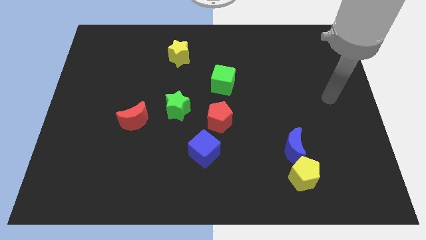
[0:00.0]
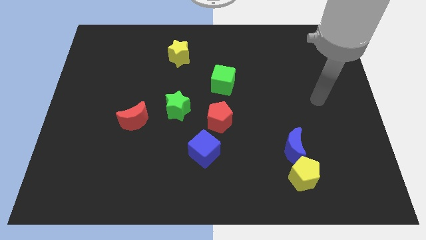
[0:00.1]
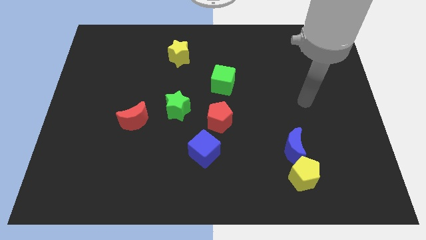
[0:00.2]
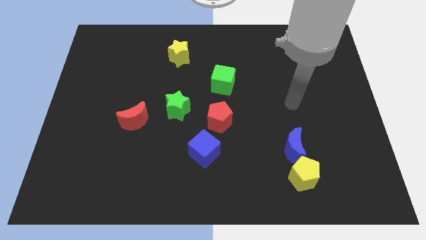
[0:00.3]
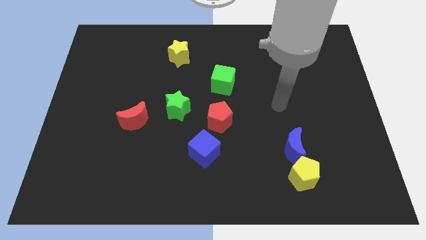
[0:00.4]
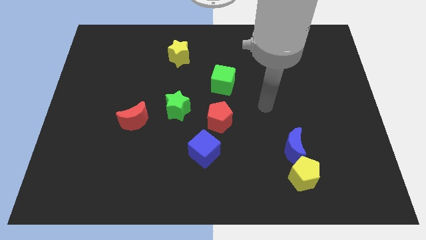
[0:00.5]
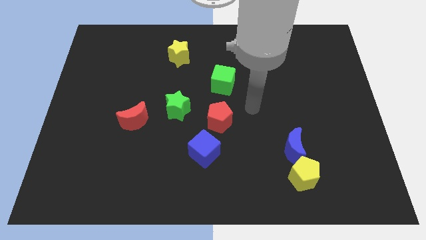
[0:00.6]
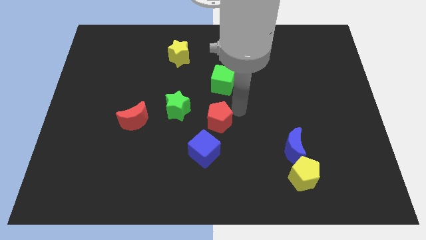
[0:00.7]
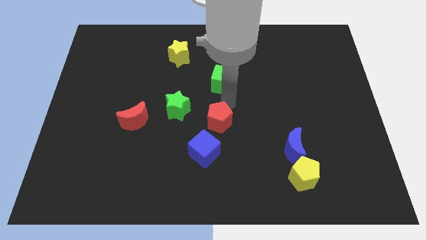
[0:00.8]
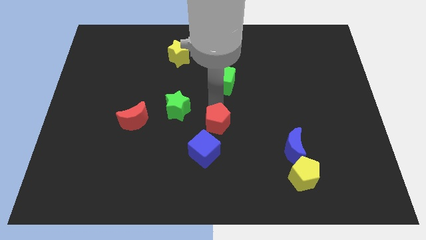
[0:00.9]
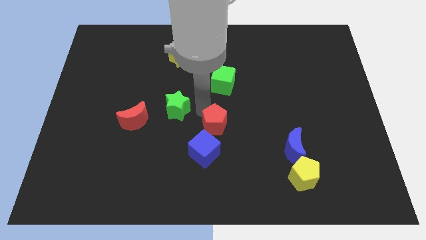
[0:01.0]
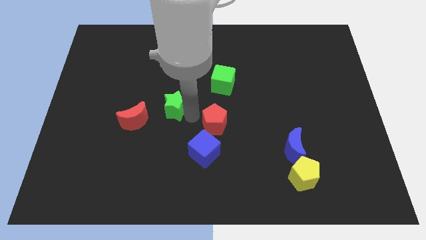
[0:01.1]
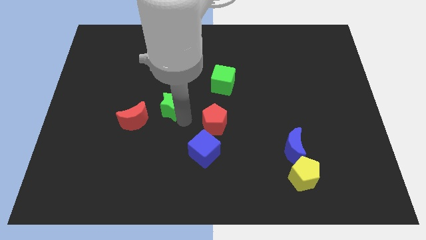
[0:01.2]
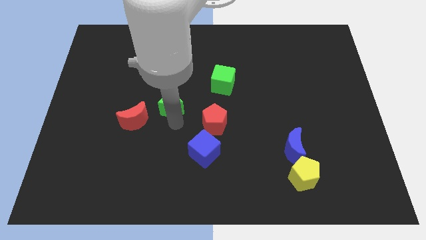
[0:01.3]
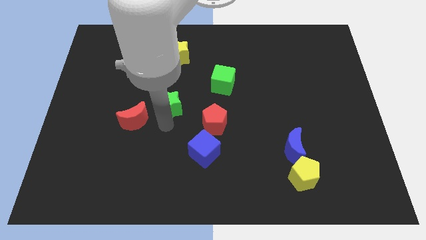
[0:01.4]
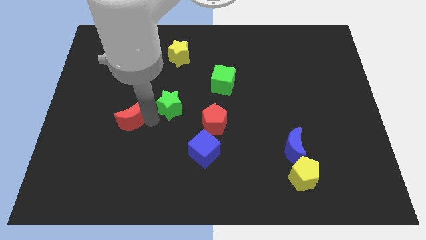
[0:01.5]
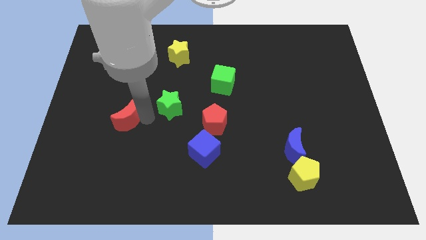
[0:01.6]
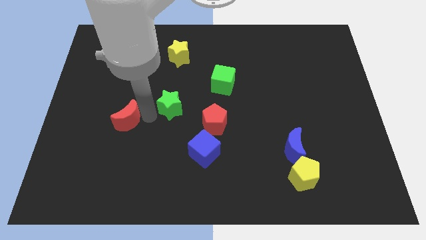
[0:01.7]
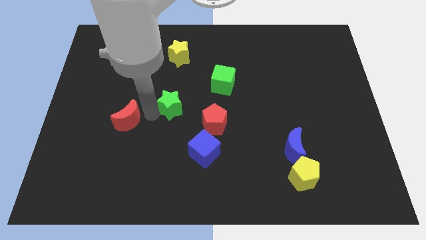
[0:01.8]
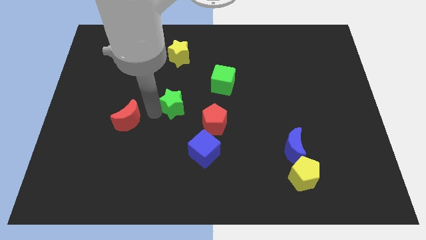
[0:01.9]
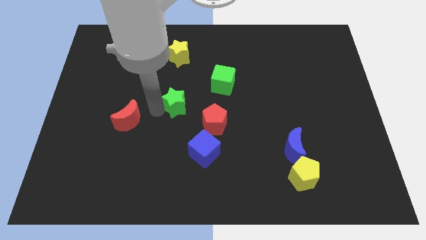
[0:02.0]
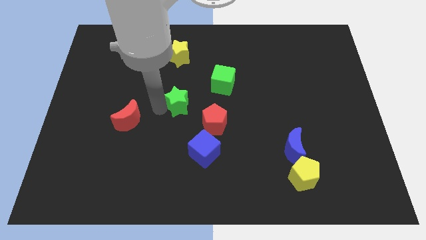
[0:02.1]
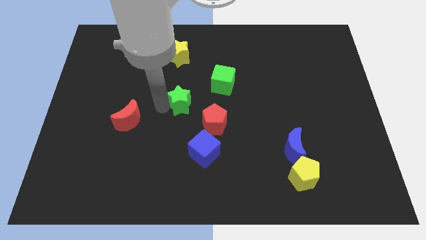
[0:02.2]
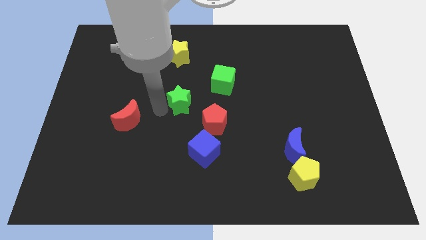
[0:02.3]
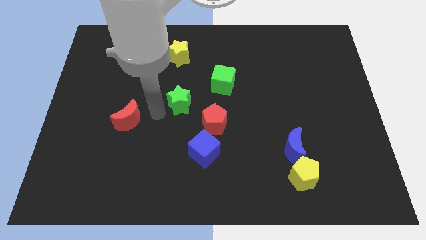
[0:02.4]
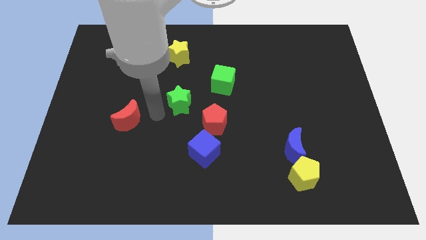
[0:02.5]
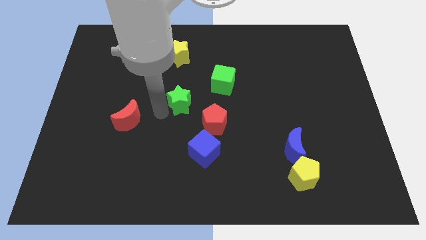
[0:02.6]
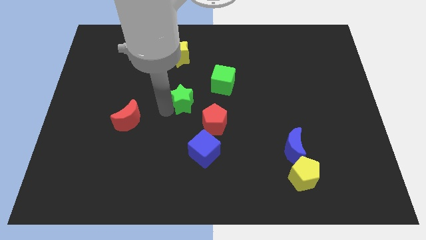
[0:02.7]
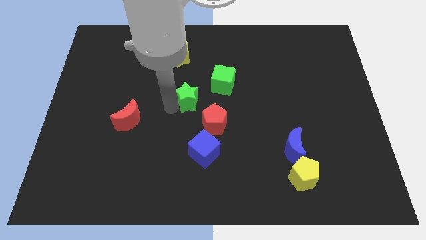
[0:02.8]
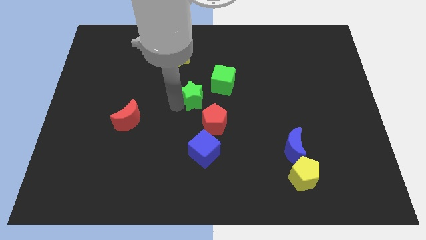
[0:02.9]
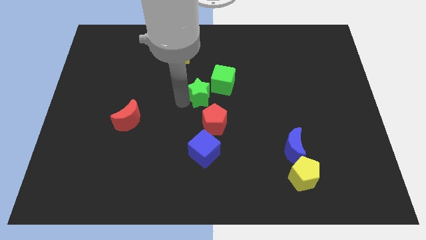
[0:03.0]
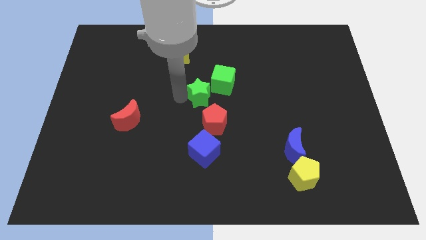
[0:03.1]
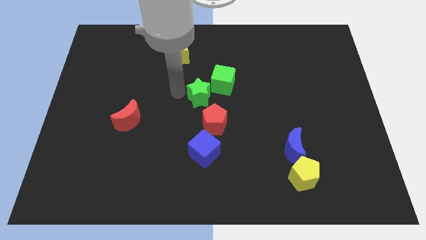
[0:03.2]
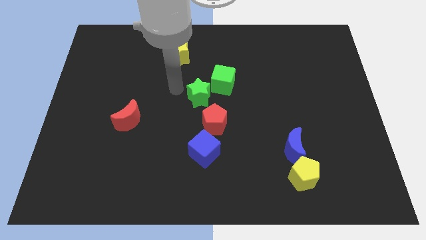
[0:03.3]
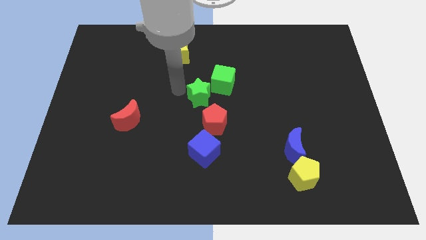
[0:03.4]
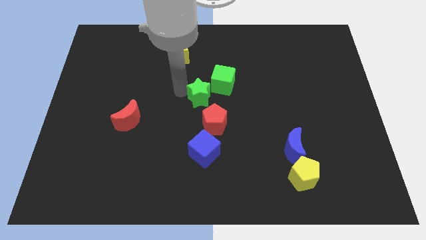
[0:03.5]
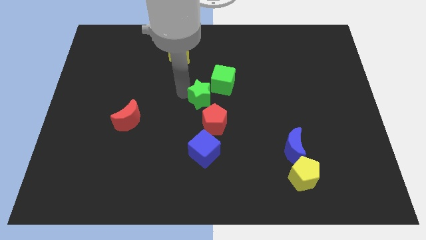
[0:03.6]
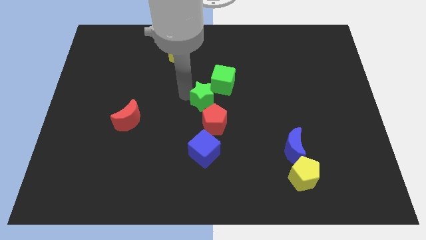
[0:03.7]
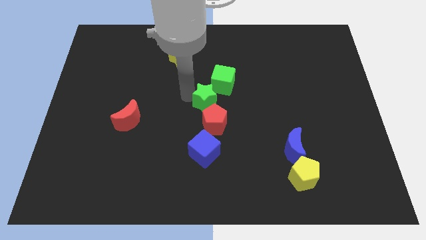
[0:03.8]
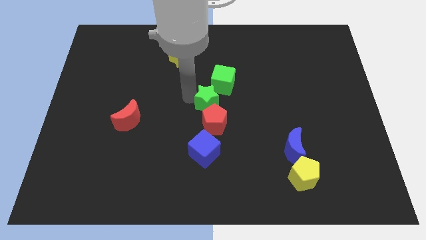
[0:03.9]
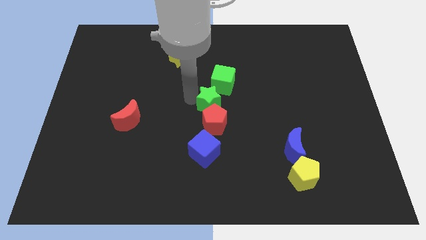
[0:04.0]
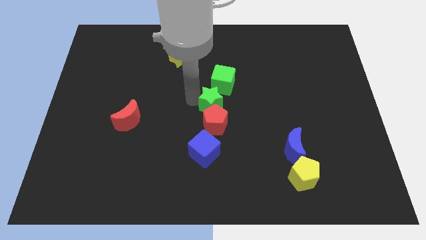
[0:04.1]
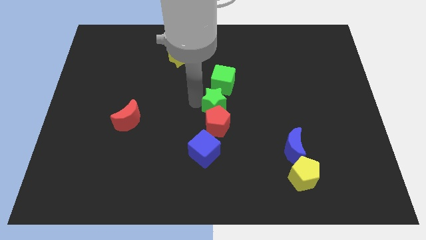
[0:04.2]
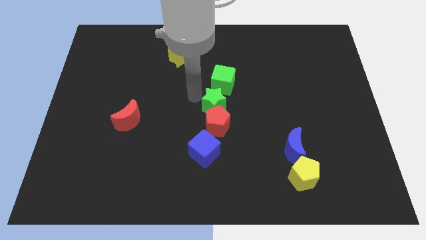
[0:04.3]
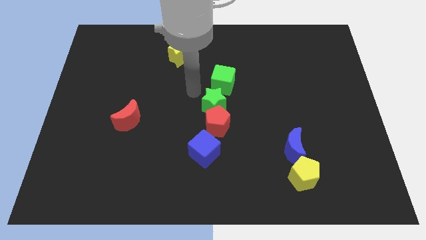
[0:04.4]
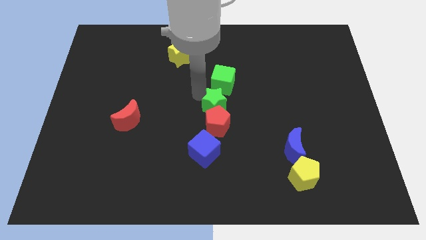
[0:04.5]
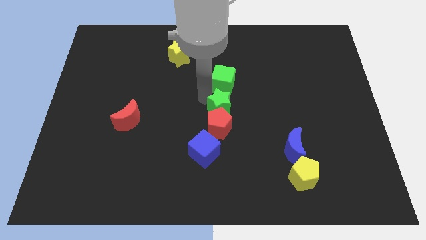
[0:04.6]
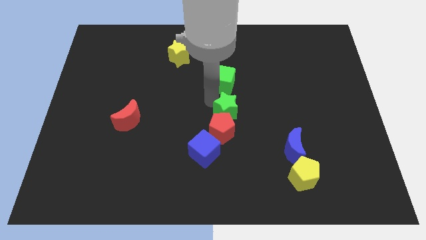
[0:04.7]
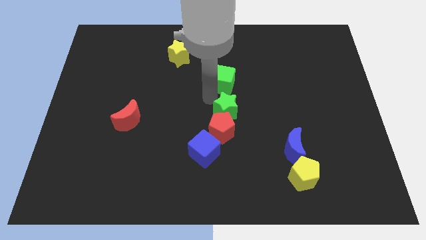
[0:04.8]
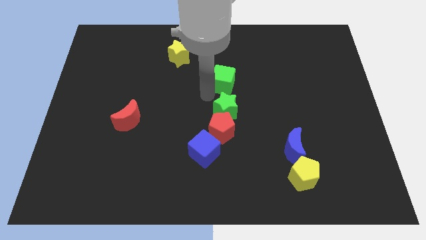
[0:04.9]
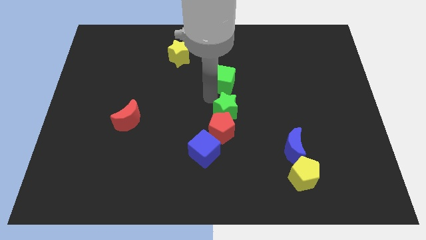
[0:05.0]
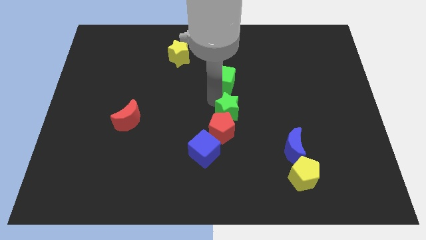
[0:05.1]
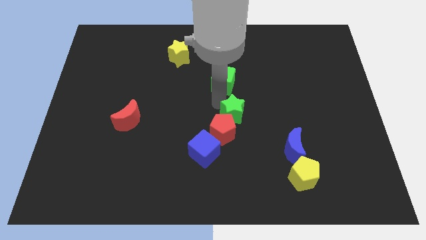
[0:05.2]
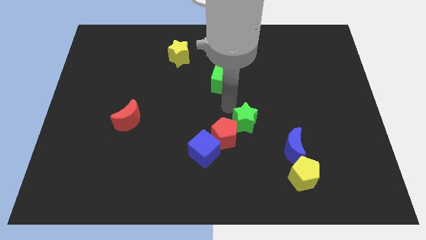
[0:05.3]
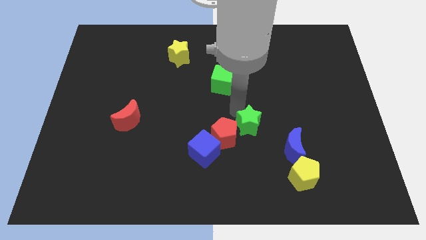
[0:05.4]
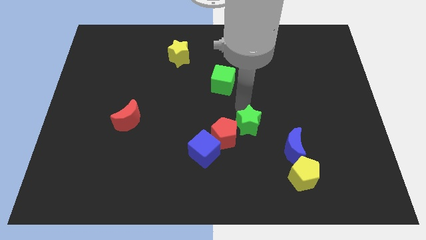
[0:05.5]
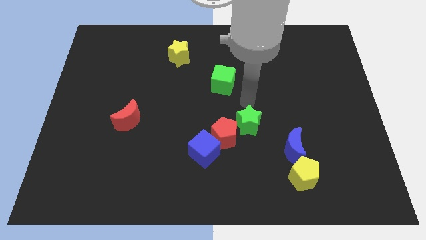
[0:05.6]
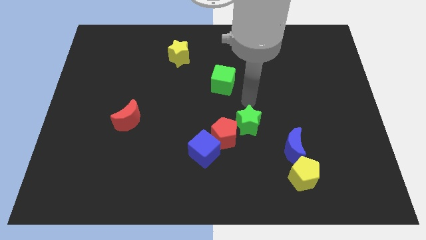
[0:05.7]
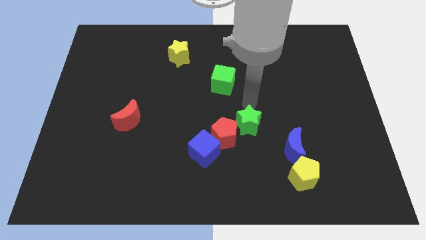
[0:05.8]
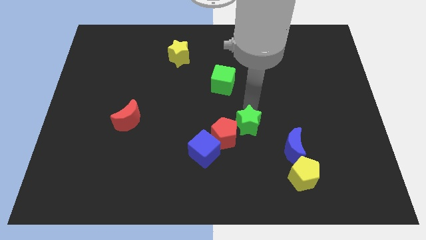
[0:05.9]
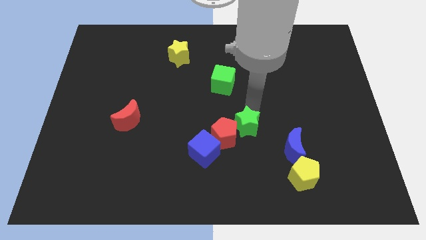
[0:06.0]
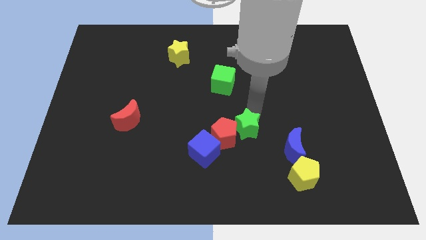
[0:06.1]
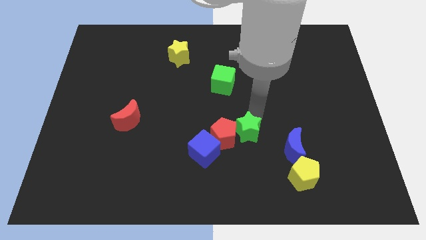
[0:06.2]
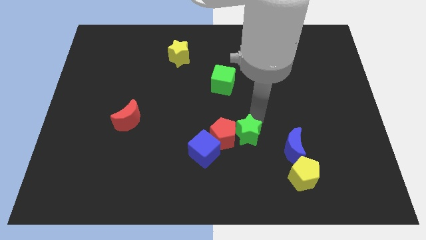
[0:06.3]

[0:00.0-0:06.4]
put the green star diagonally down and to the right of the red pentagon

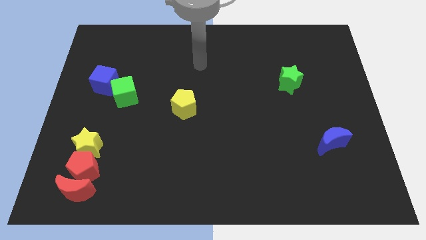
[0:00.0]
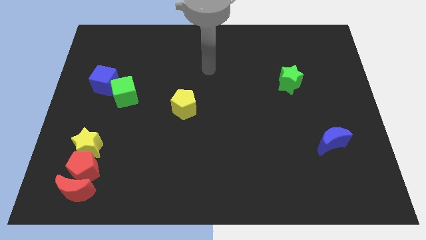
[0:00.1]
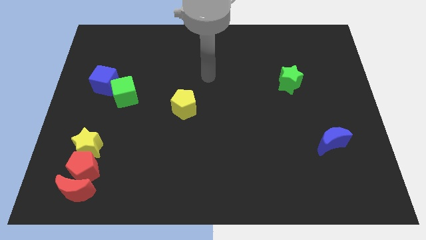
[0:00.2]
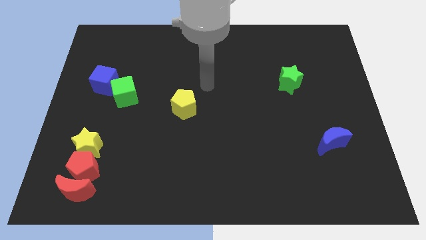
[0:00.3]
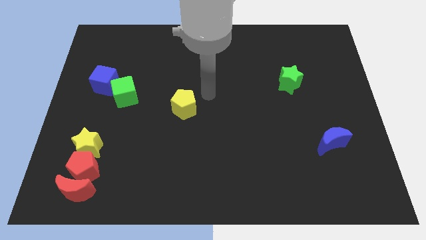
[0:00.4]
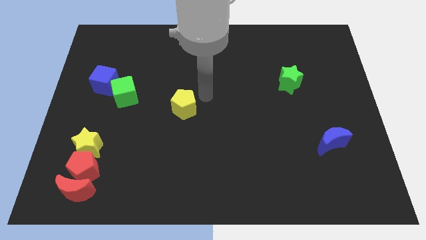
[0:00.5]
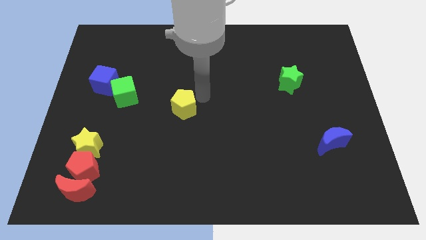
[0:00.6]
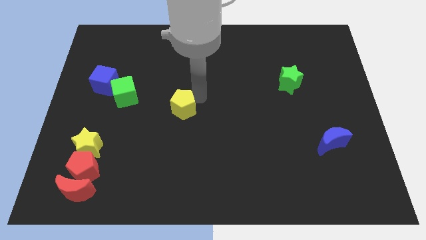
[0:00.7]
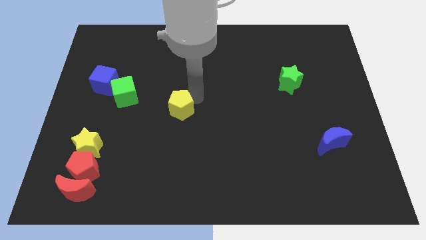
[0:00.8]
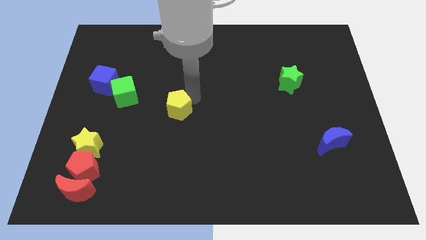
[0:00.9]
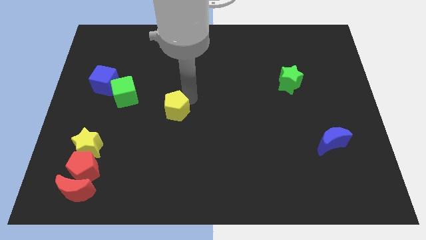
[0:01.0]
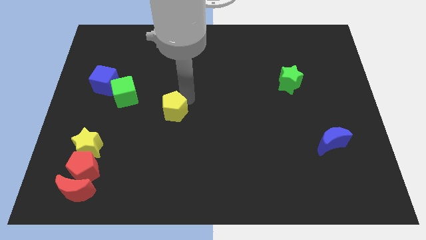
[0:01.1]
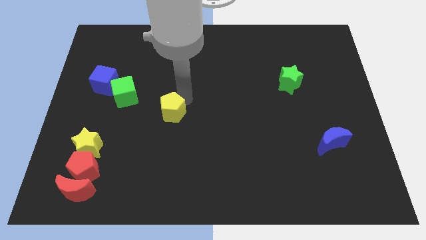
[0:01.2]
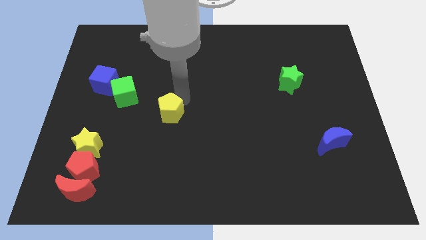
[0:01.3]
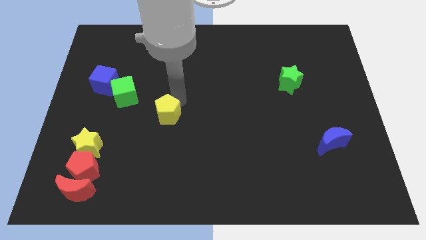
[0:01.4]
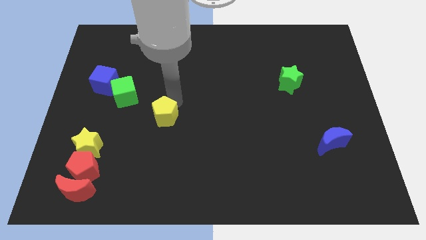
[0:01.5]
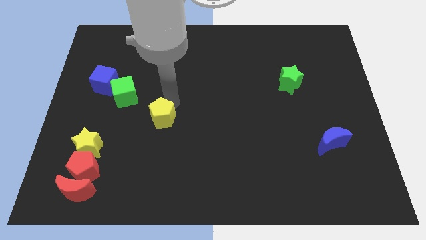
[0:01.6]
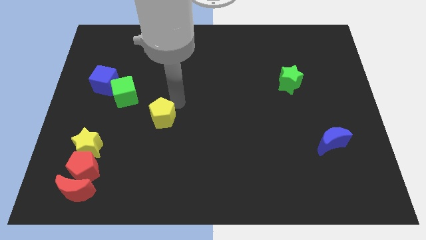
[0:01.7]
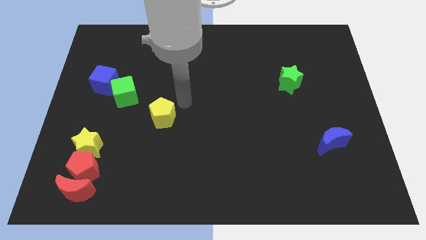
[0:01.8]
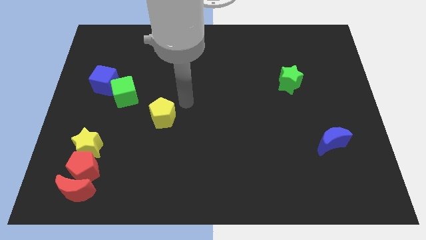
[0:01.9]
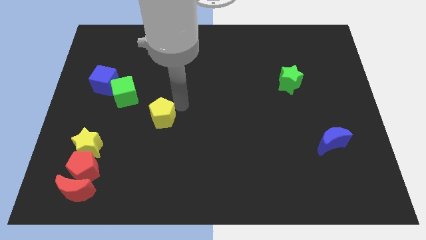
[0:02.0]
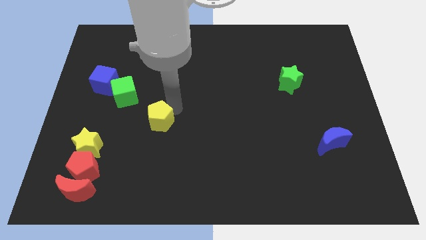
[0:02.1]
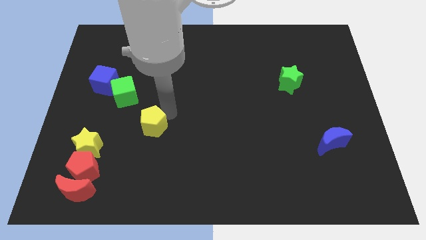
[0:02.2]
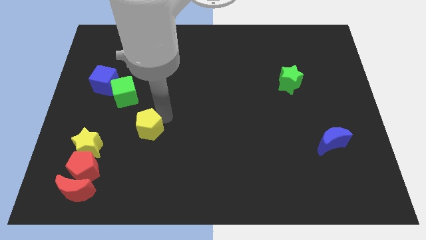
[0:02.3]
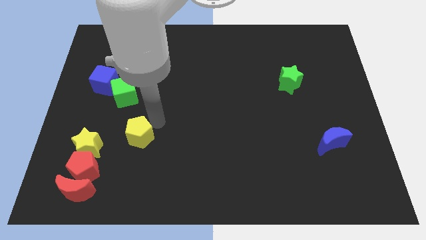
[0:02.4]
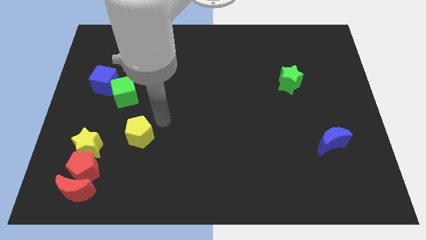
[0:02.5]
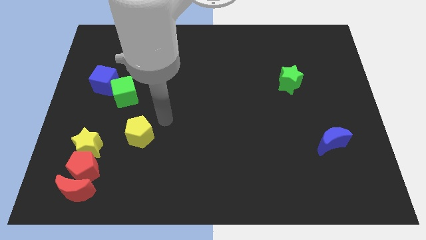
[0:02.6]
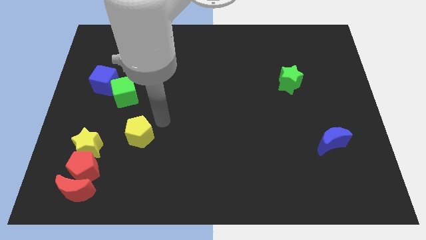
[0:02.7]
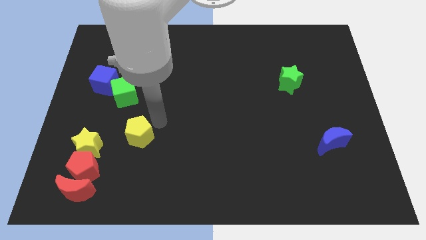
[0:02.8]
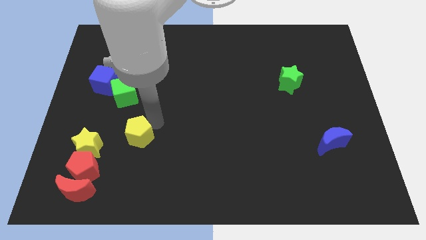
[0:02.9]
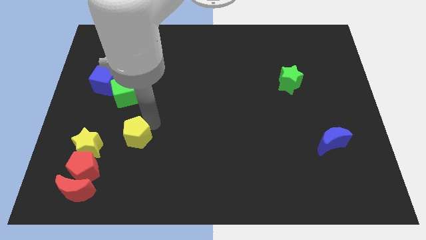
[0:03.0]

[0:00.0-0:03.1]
push the yellow pentagon diagonally up and to the right of the red pentagon
